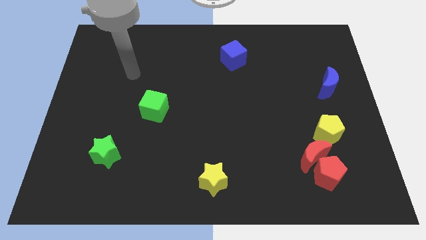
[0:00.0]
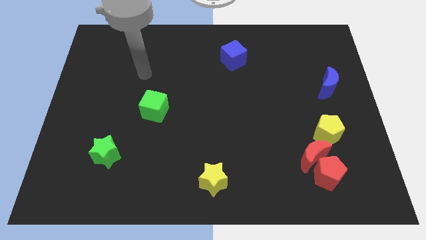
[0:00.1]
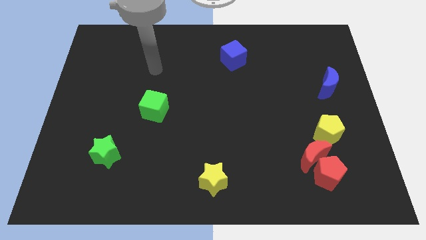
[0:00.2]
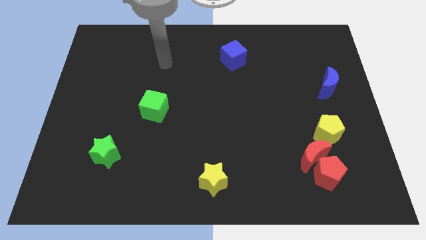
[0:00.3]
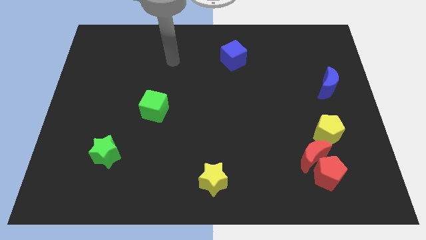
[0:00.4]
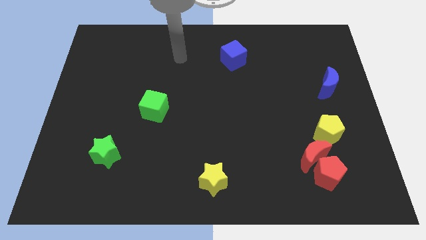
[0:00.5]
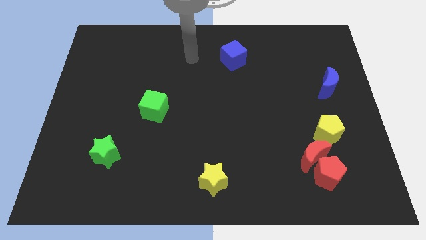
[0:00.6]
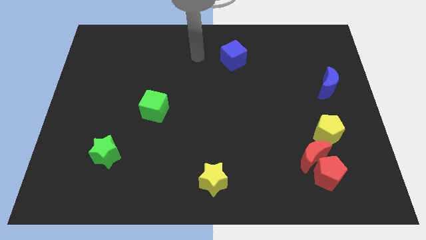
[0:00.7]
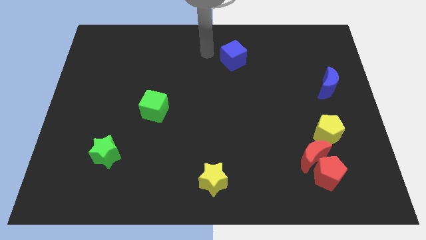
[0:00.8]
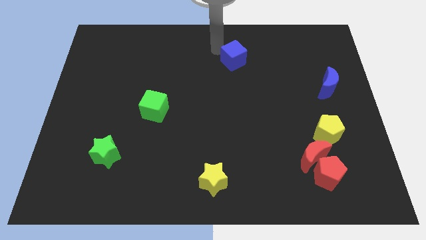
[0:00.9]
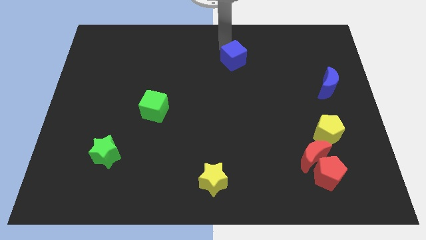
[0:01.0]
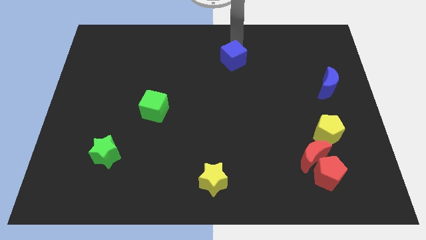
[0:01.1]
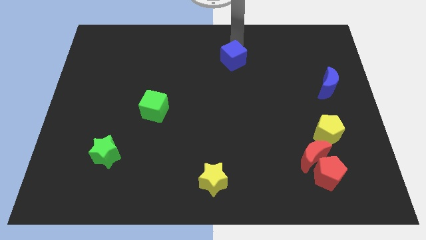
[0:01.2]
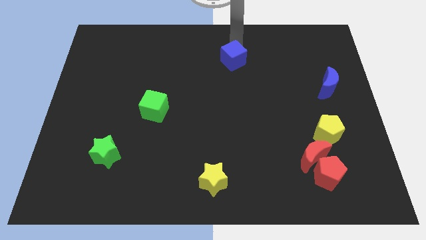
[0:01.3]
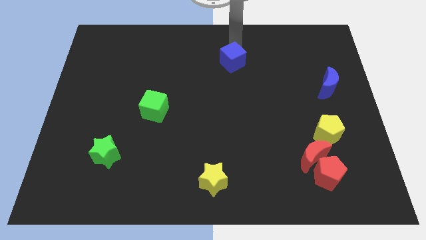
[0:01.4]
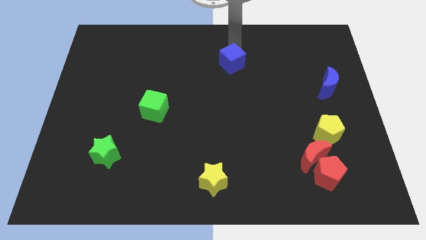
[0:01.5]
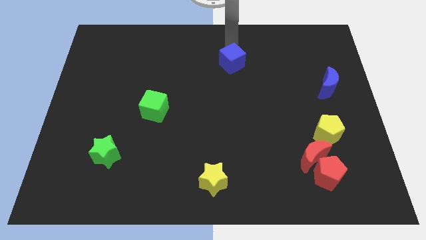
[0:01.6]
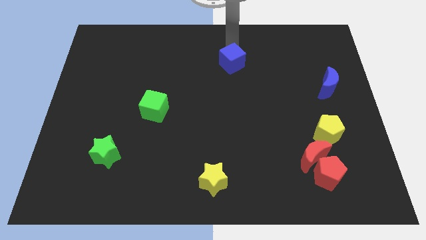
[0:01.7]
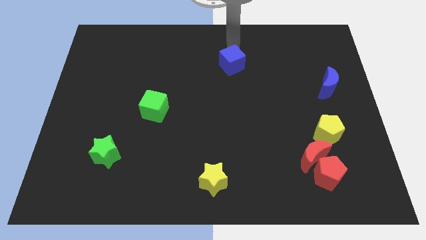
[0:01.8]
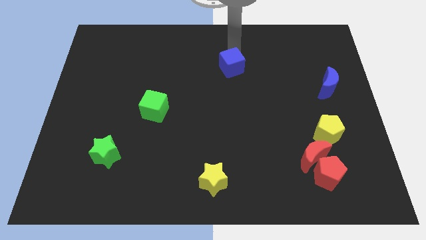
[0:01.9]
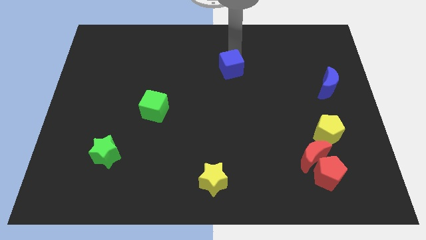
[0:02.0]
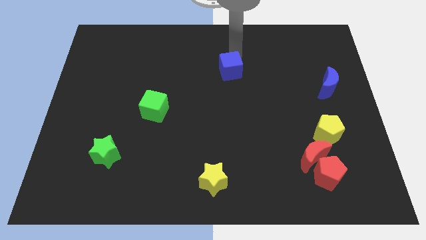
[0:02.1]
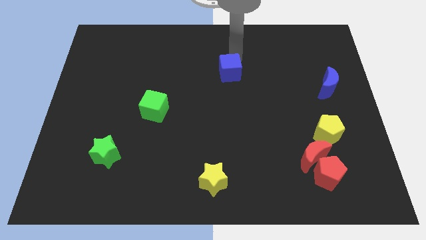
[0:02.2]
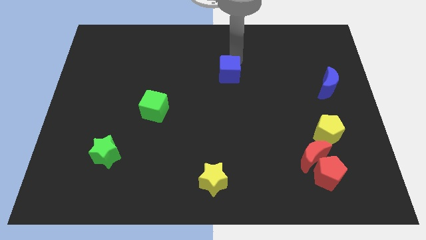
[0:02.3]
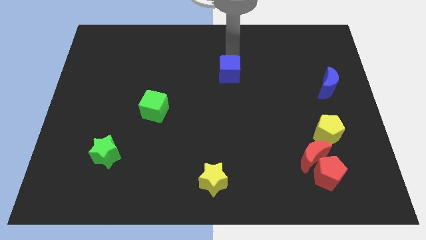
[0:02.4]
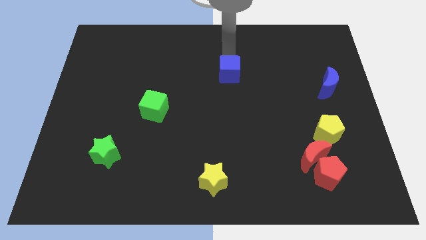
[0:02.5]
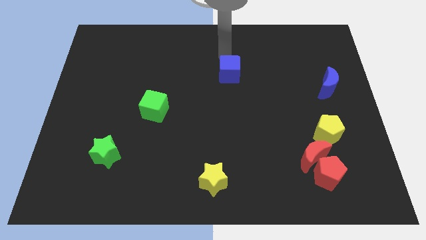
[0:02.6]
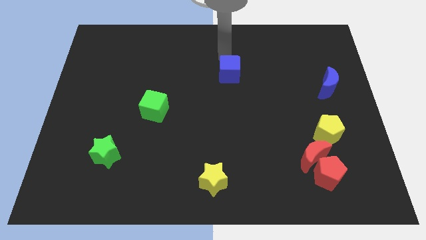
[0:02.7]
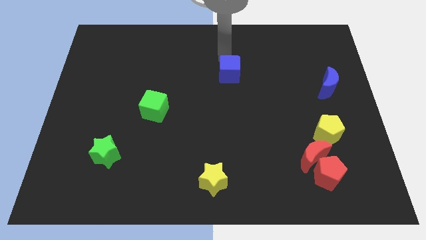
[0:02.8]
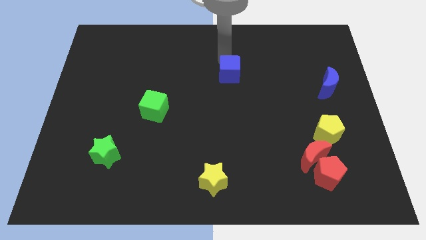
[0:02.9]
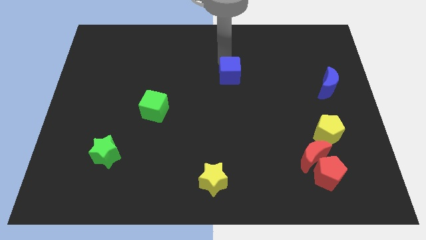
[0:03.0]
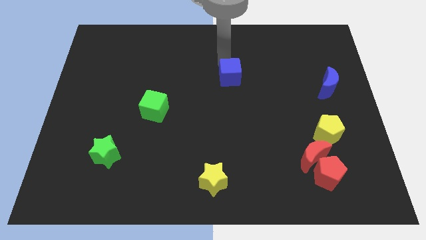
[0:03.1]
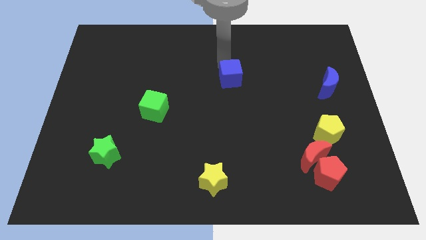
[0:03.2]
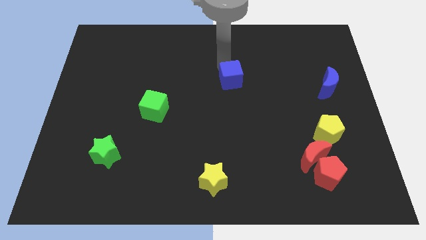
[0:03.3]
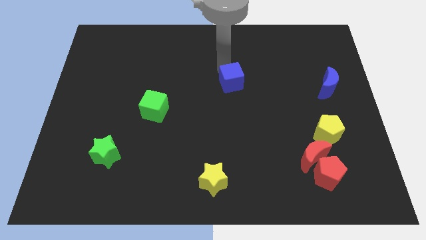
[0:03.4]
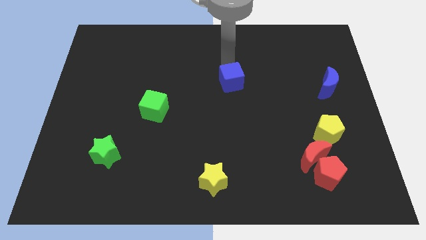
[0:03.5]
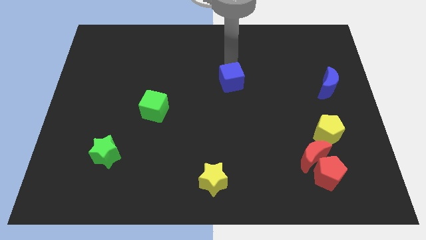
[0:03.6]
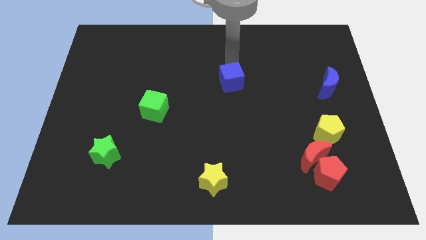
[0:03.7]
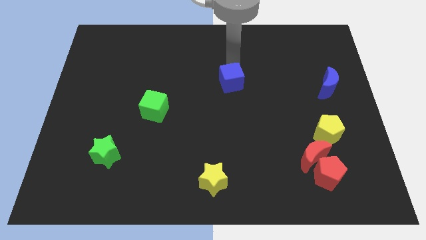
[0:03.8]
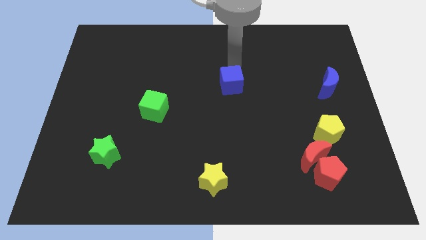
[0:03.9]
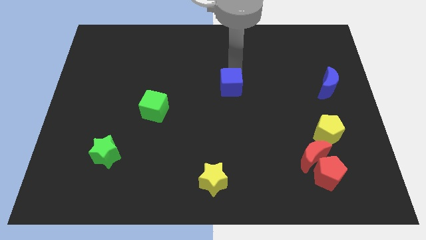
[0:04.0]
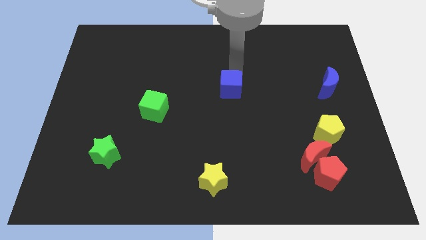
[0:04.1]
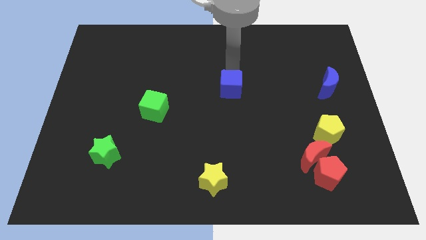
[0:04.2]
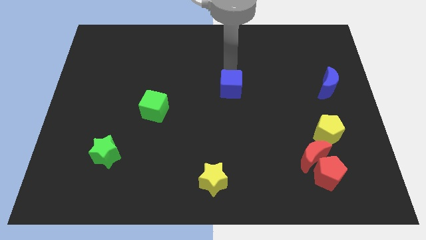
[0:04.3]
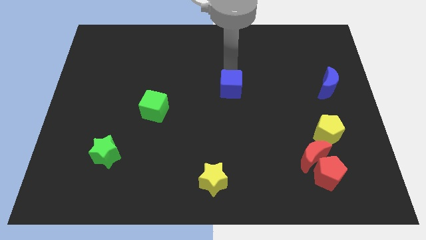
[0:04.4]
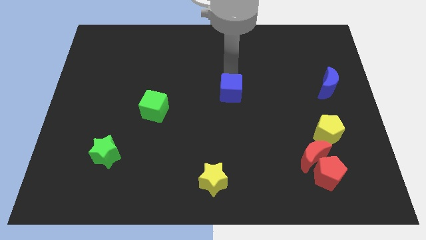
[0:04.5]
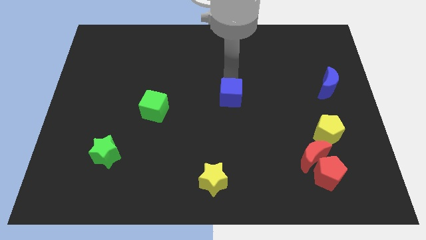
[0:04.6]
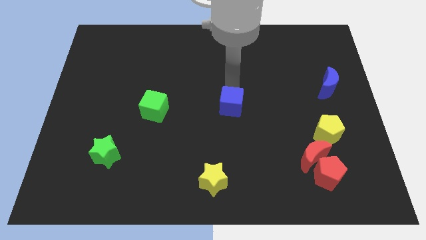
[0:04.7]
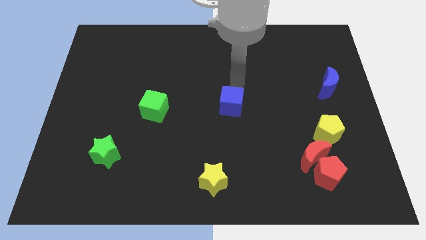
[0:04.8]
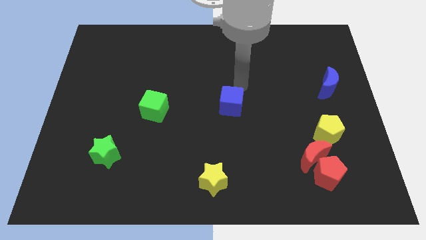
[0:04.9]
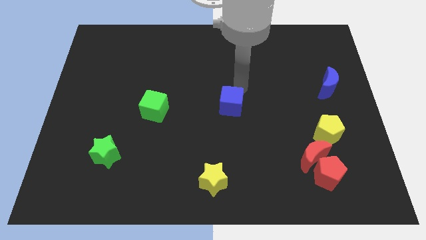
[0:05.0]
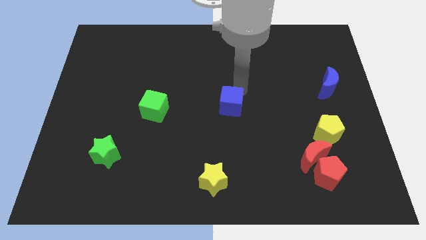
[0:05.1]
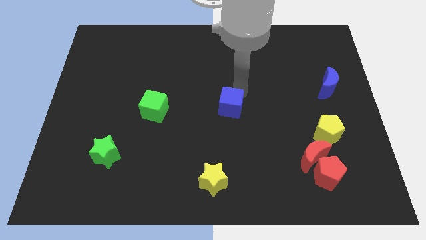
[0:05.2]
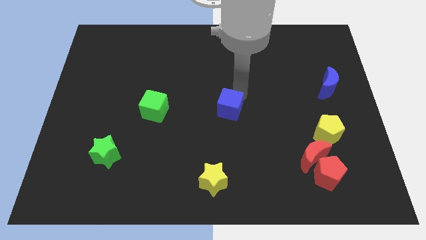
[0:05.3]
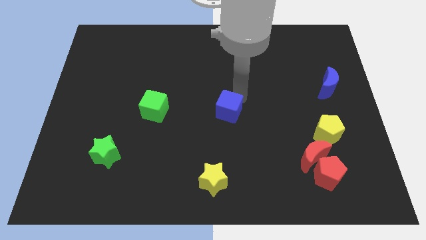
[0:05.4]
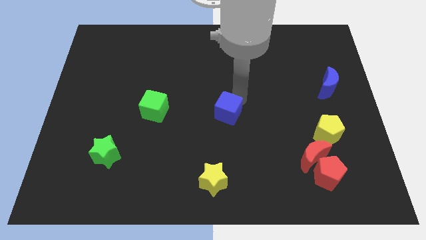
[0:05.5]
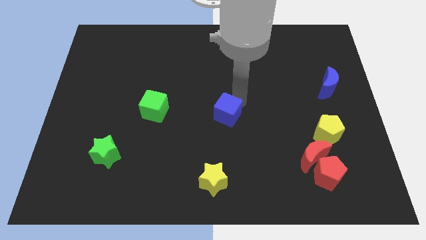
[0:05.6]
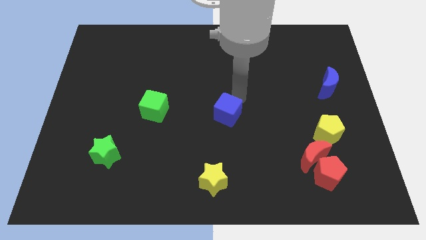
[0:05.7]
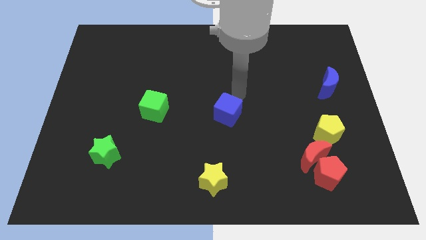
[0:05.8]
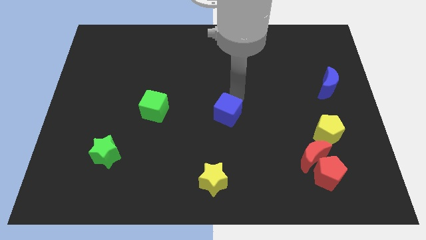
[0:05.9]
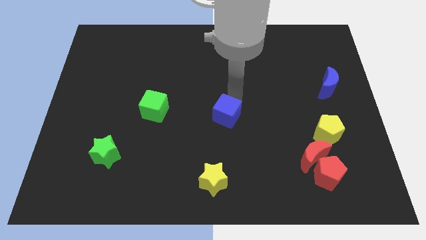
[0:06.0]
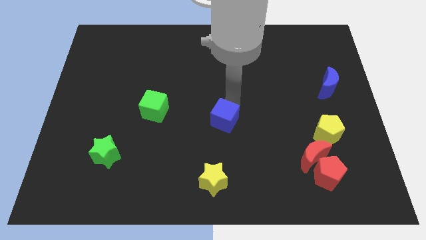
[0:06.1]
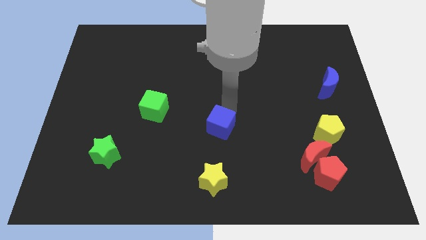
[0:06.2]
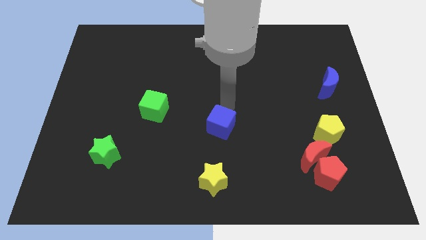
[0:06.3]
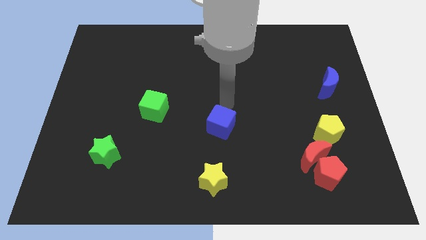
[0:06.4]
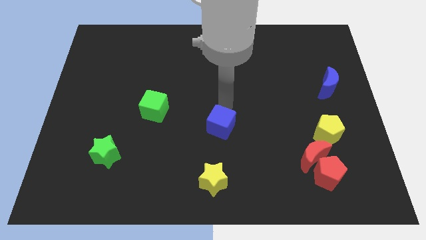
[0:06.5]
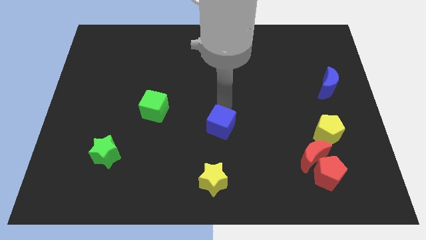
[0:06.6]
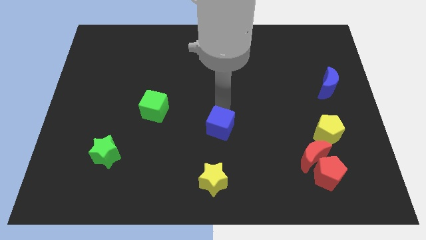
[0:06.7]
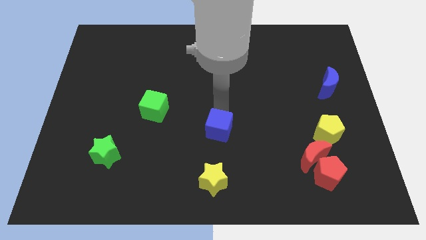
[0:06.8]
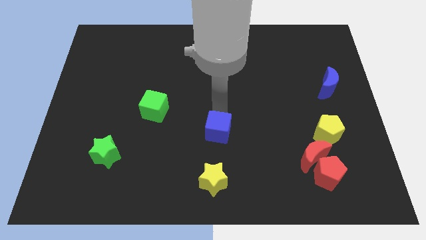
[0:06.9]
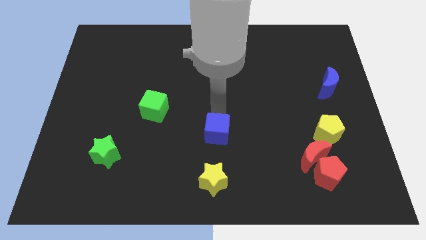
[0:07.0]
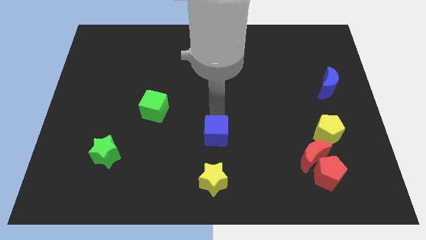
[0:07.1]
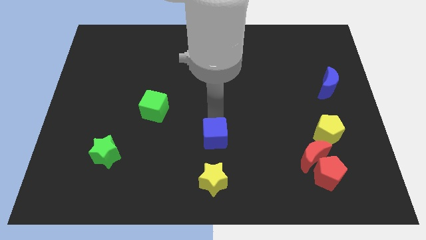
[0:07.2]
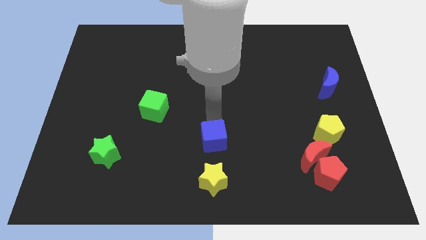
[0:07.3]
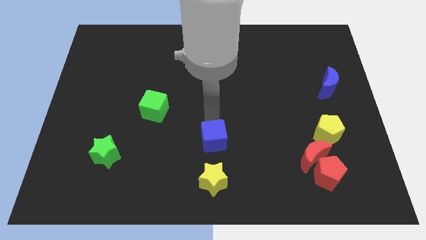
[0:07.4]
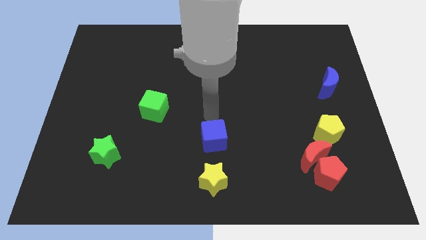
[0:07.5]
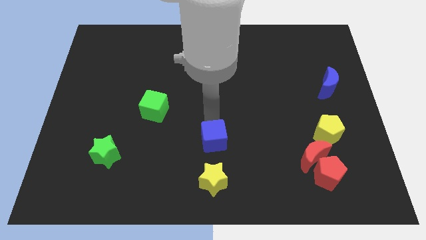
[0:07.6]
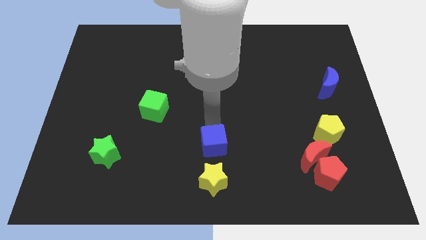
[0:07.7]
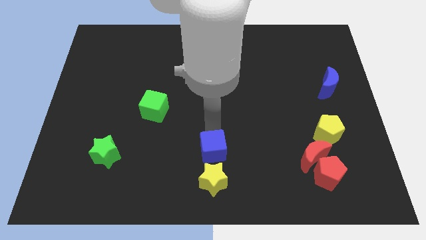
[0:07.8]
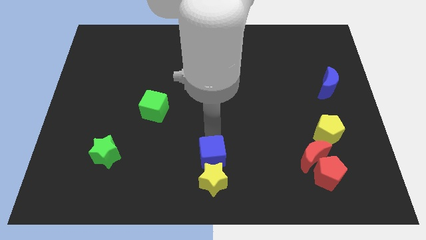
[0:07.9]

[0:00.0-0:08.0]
push the blue cube next to the yellow star
